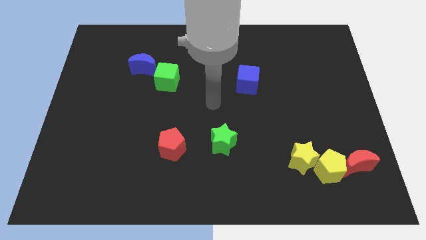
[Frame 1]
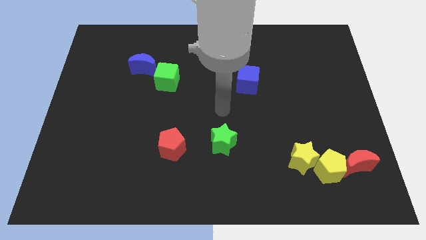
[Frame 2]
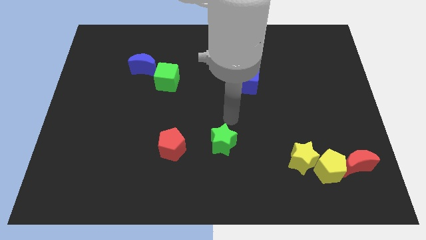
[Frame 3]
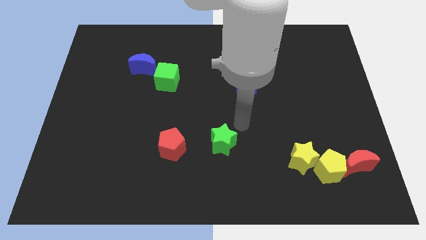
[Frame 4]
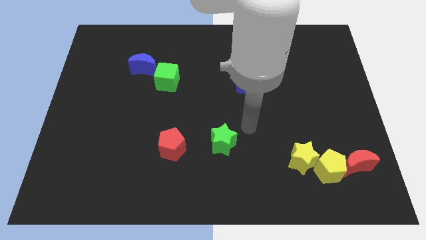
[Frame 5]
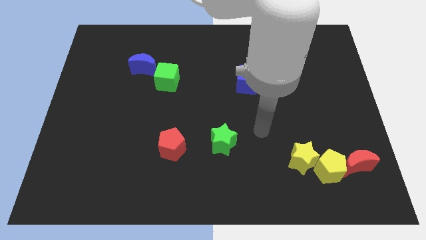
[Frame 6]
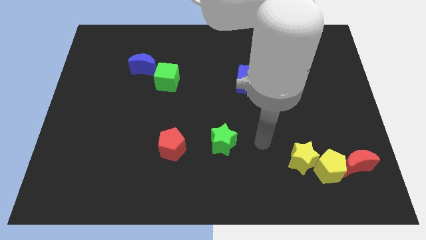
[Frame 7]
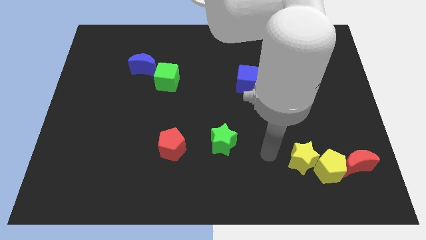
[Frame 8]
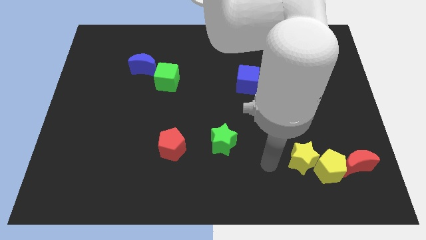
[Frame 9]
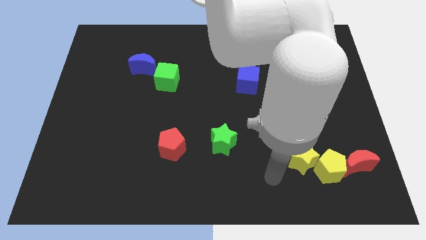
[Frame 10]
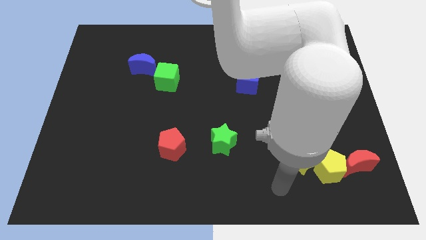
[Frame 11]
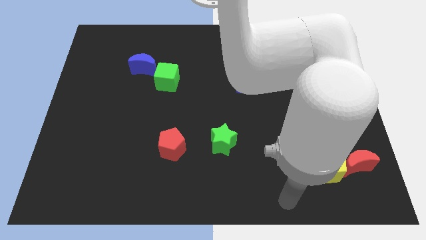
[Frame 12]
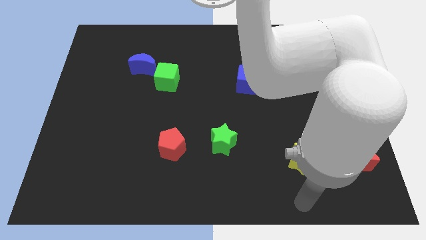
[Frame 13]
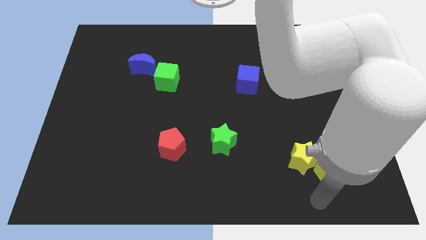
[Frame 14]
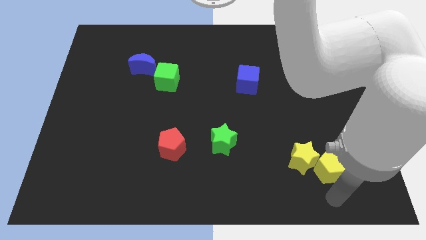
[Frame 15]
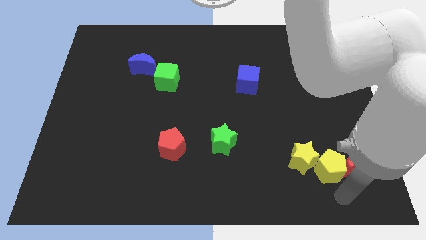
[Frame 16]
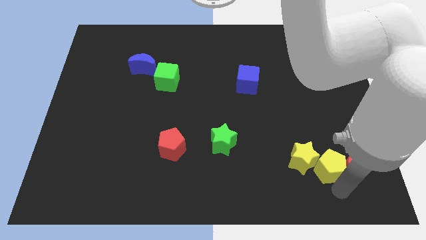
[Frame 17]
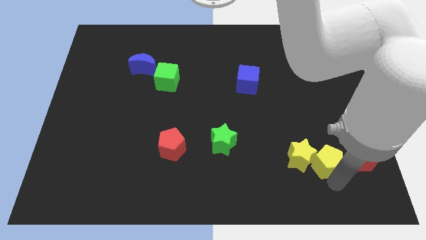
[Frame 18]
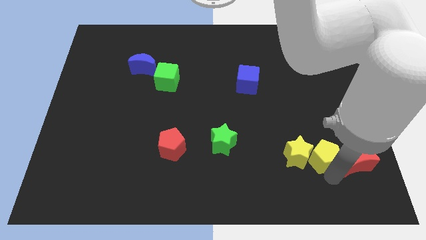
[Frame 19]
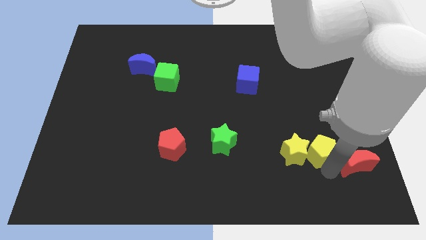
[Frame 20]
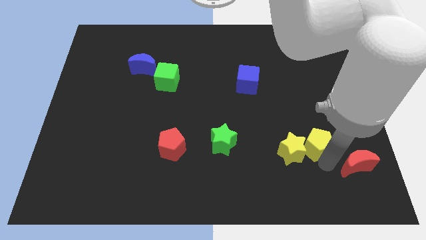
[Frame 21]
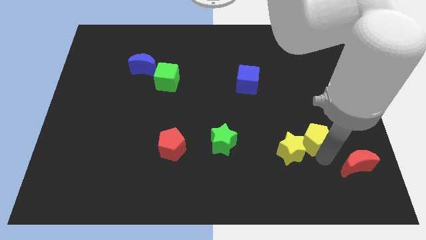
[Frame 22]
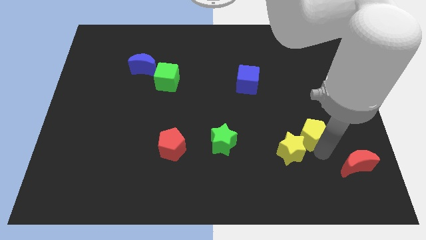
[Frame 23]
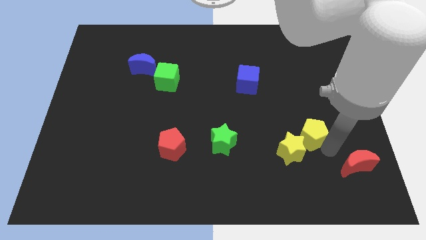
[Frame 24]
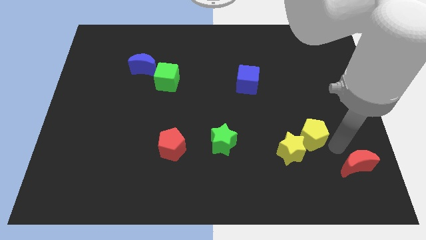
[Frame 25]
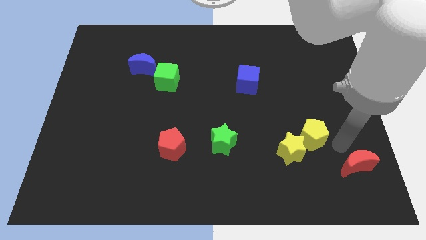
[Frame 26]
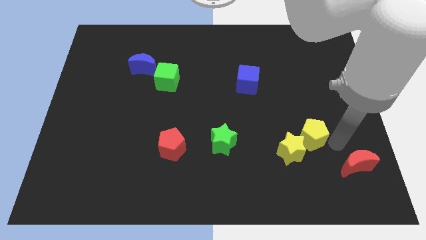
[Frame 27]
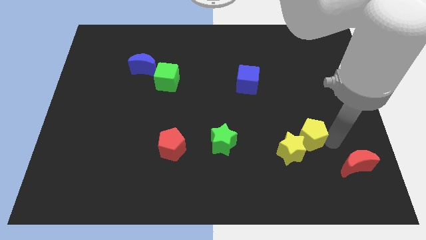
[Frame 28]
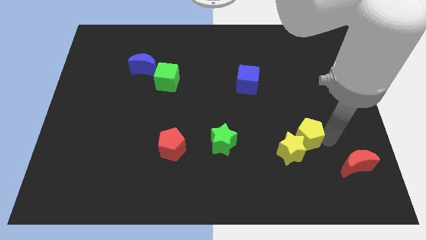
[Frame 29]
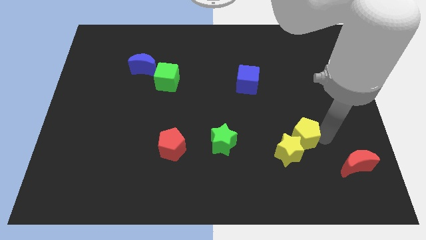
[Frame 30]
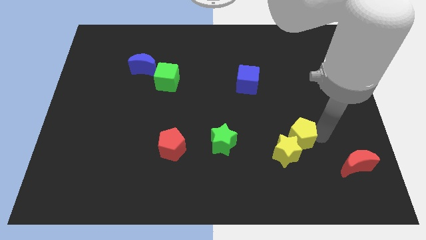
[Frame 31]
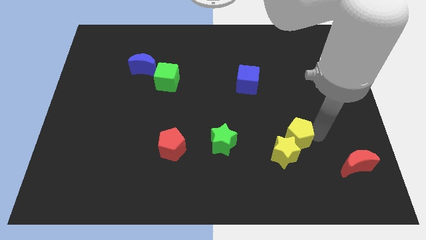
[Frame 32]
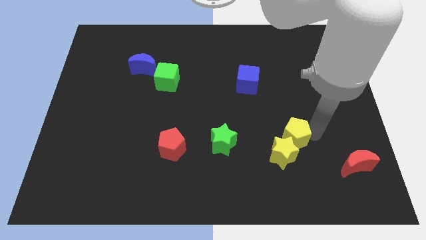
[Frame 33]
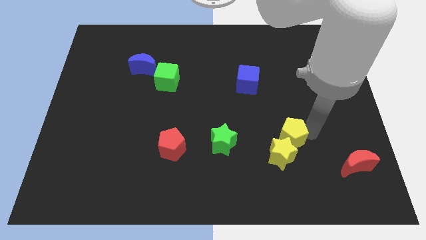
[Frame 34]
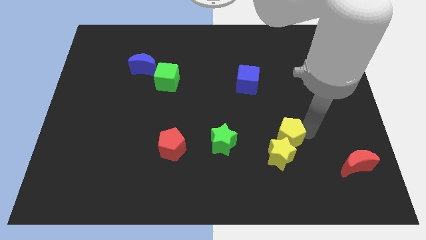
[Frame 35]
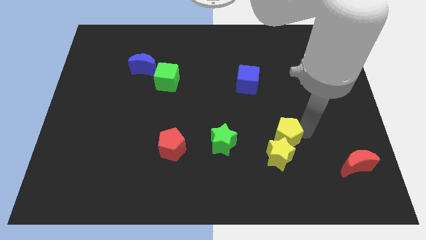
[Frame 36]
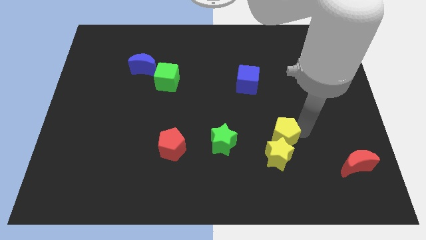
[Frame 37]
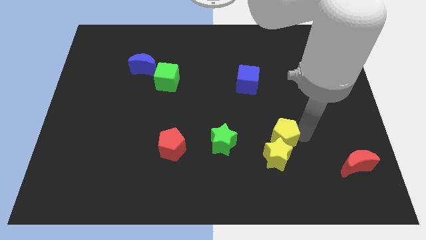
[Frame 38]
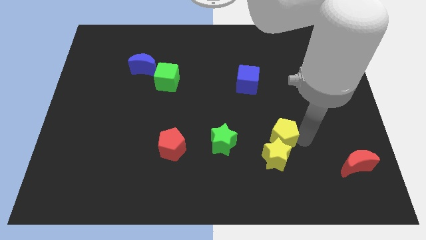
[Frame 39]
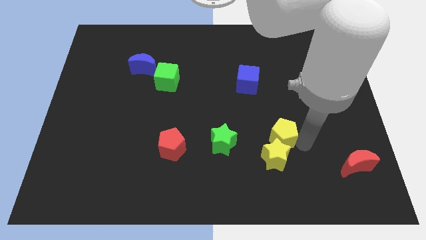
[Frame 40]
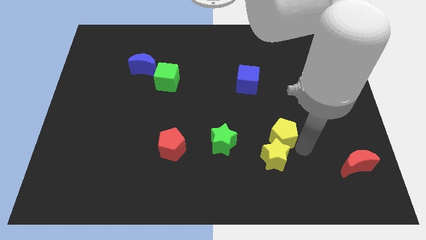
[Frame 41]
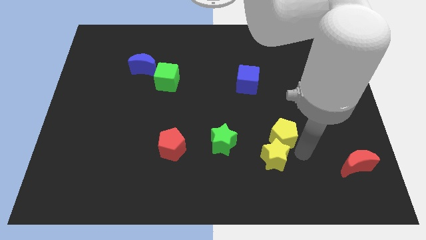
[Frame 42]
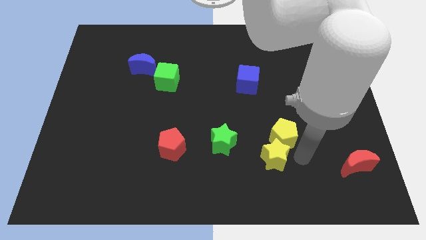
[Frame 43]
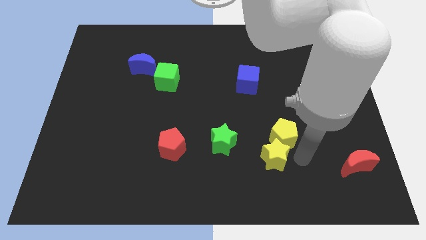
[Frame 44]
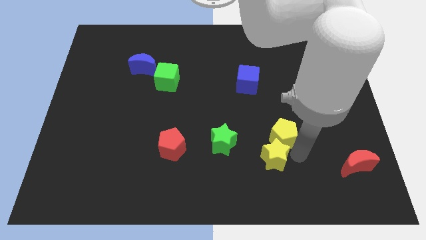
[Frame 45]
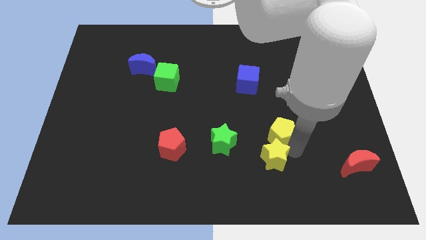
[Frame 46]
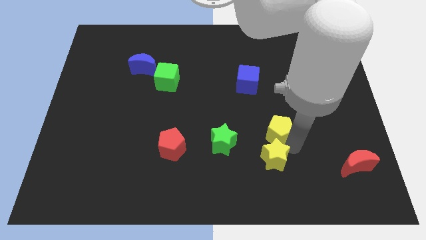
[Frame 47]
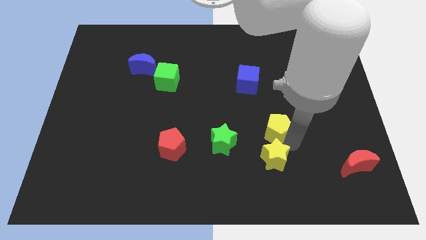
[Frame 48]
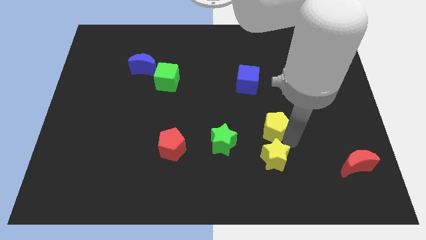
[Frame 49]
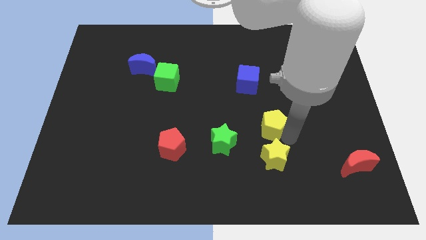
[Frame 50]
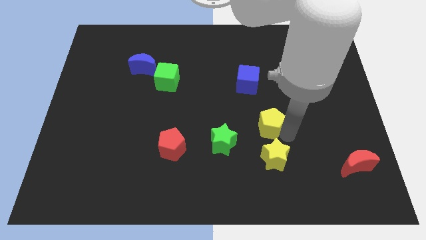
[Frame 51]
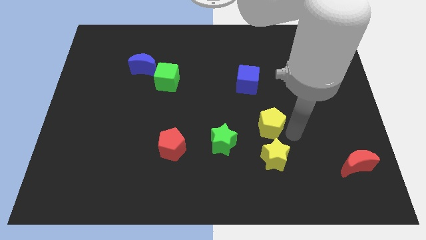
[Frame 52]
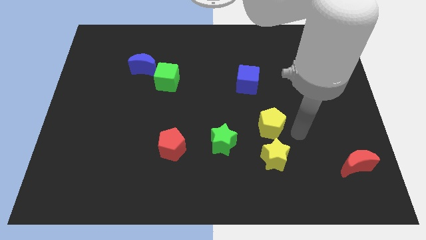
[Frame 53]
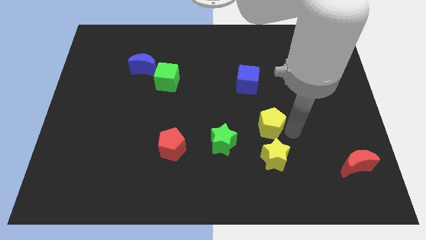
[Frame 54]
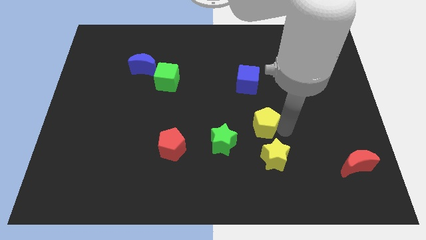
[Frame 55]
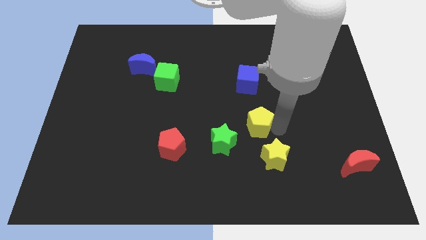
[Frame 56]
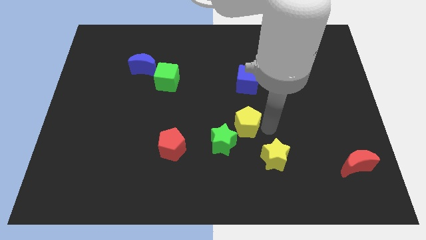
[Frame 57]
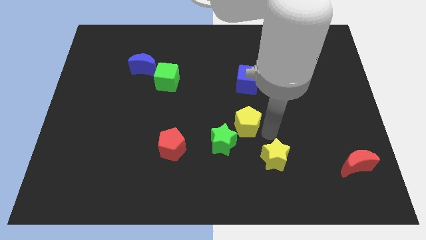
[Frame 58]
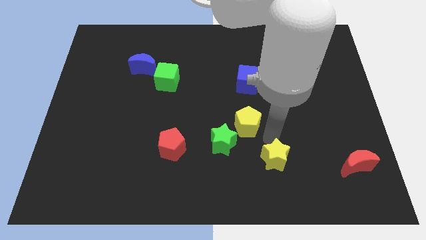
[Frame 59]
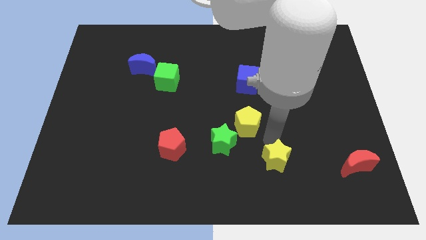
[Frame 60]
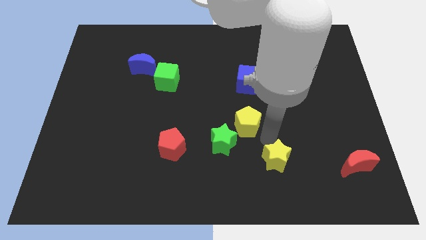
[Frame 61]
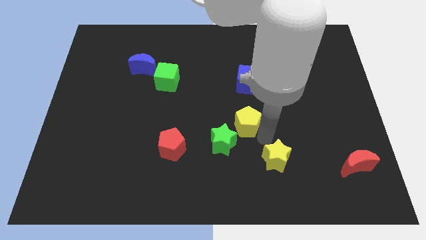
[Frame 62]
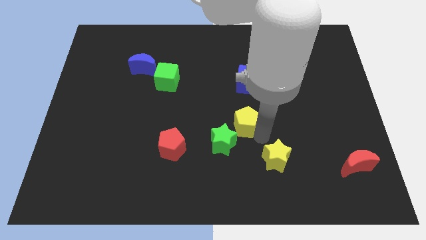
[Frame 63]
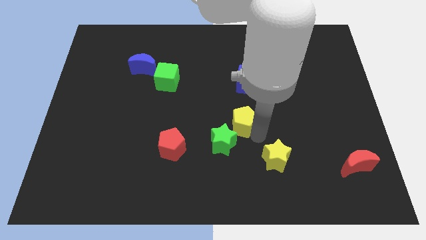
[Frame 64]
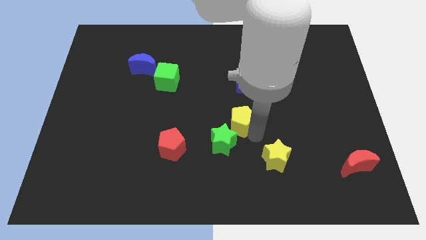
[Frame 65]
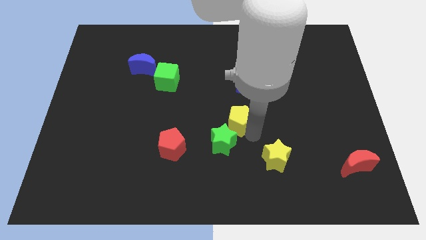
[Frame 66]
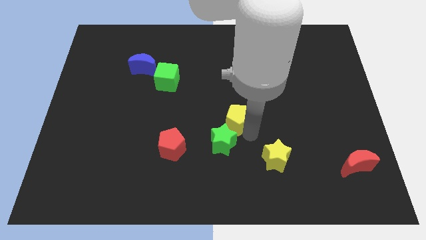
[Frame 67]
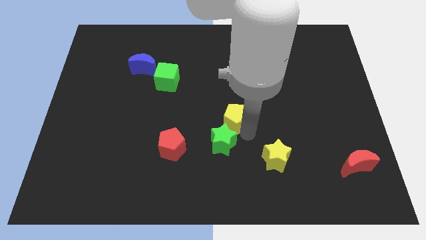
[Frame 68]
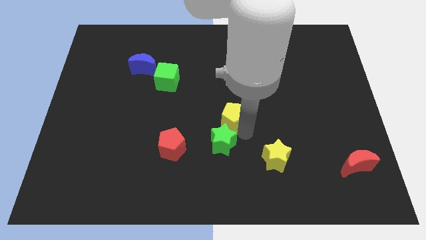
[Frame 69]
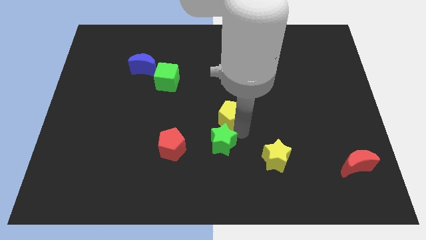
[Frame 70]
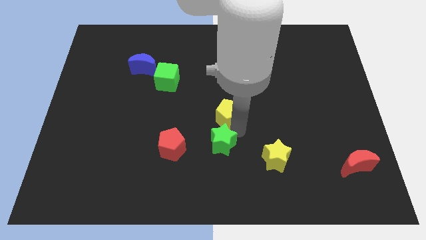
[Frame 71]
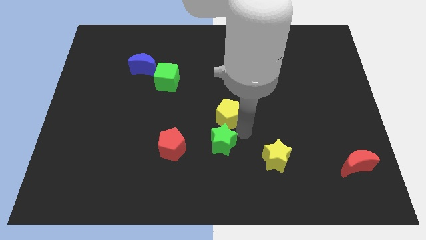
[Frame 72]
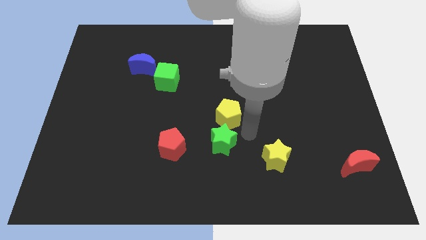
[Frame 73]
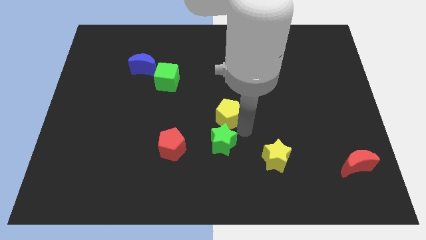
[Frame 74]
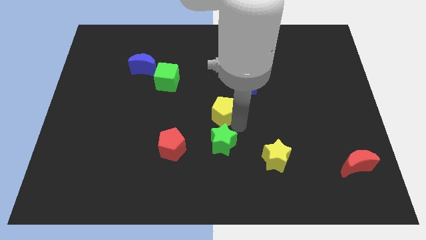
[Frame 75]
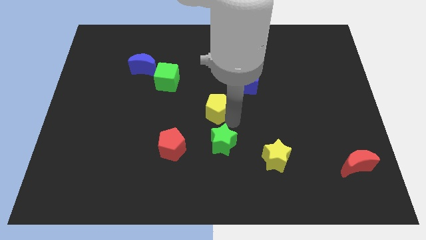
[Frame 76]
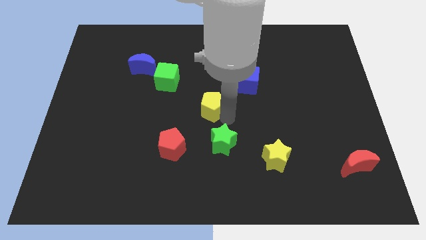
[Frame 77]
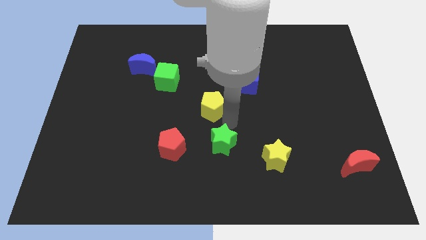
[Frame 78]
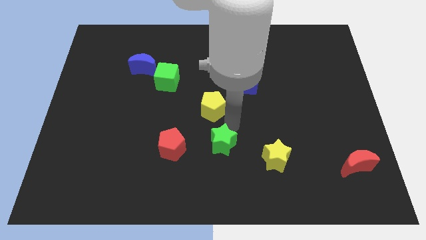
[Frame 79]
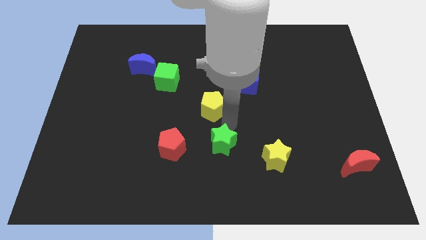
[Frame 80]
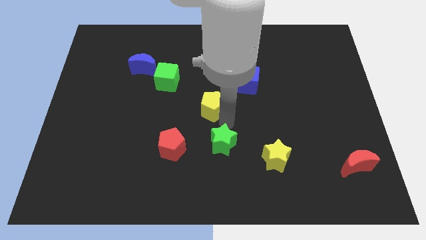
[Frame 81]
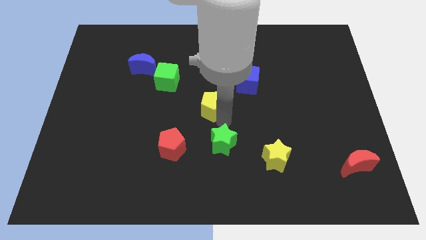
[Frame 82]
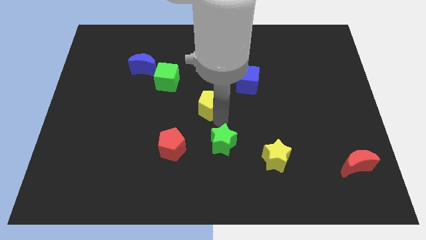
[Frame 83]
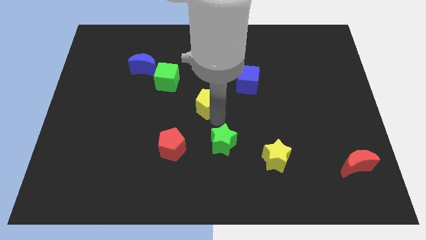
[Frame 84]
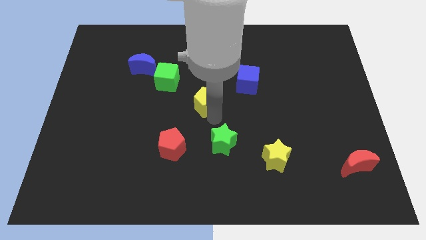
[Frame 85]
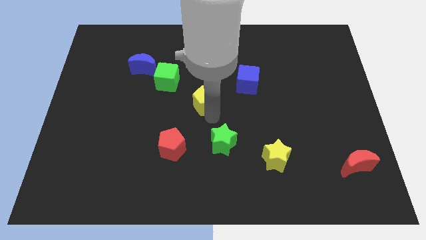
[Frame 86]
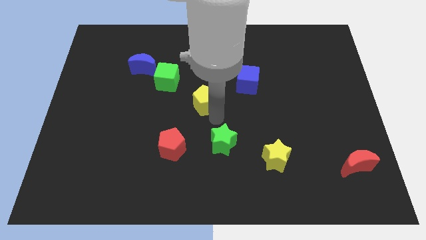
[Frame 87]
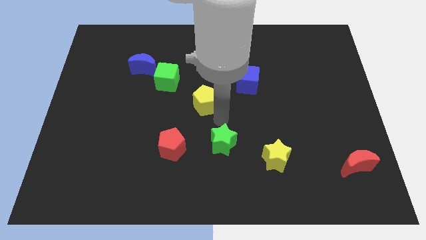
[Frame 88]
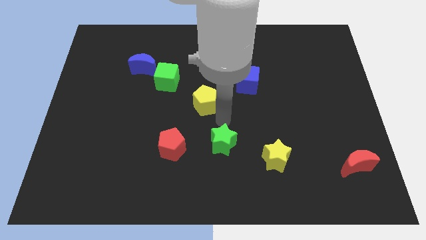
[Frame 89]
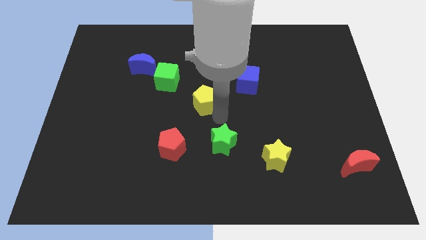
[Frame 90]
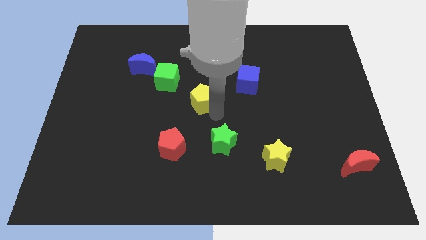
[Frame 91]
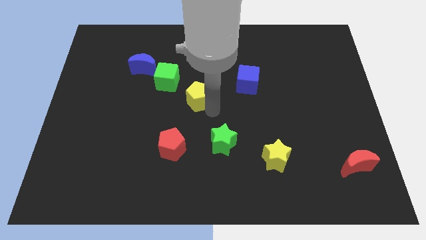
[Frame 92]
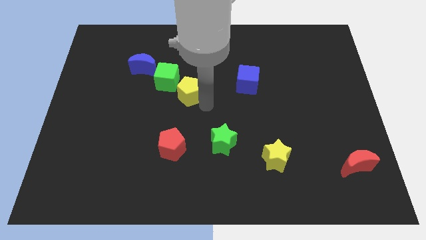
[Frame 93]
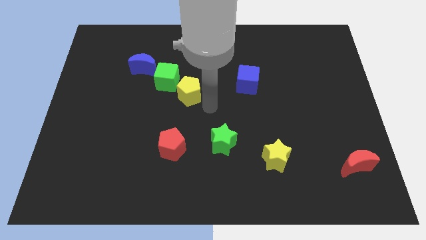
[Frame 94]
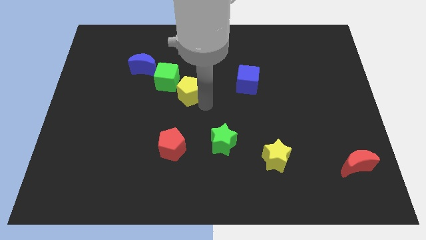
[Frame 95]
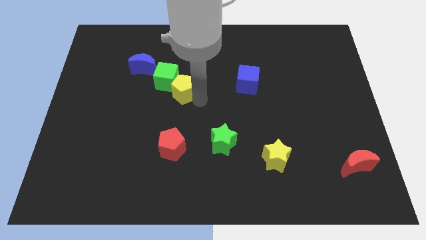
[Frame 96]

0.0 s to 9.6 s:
push the yellow pentagon to the green cube
